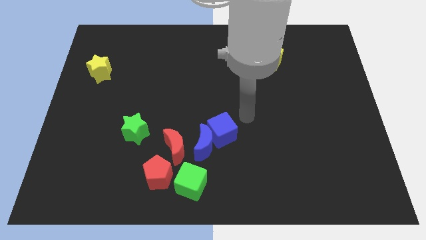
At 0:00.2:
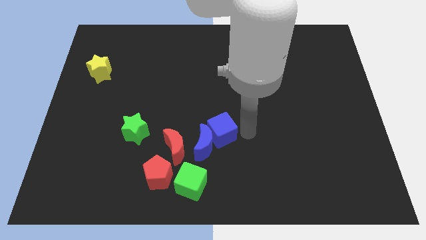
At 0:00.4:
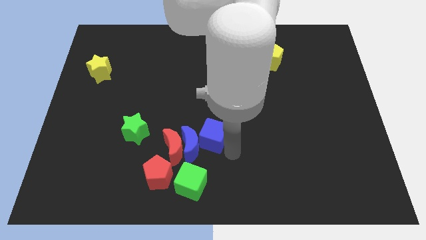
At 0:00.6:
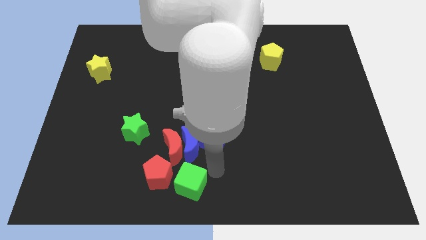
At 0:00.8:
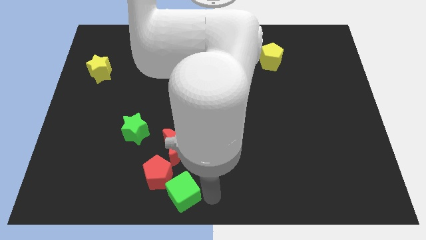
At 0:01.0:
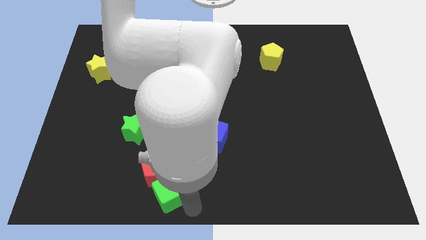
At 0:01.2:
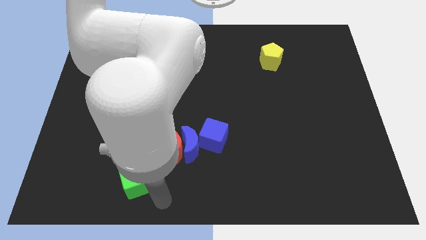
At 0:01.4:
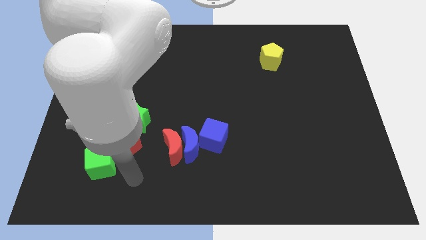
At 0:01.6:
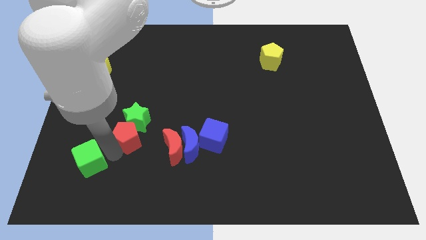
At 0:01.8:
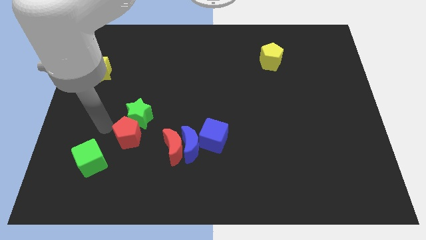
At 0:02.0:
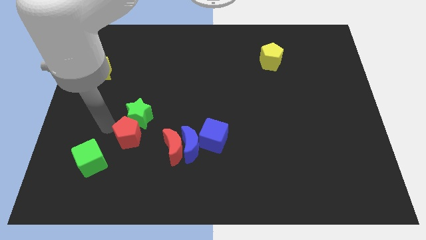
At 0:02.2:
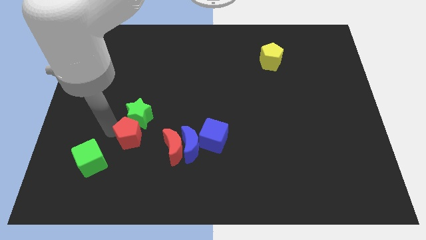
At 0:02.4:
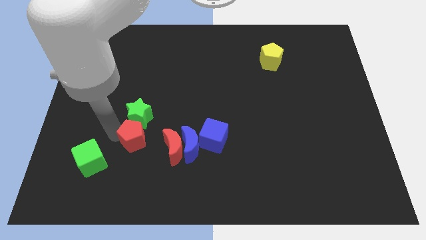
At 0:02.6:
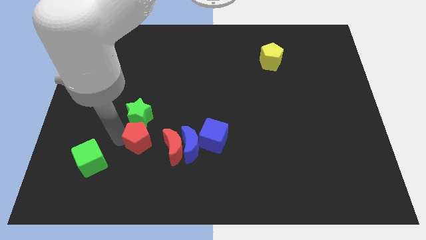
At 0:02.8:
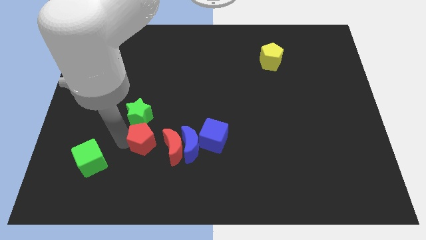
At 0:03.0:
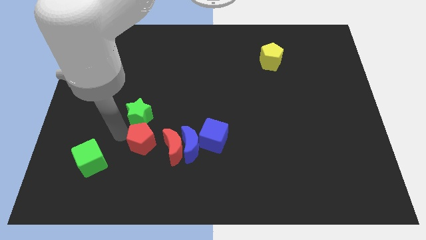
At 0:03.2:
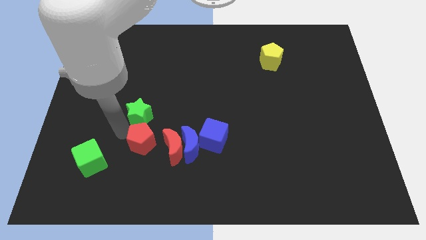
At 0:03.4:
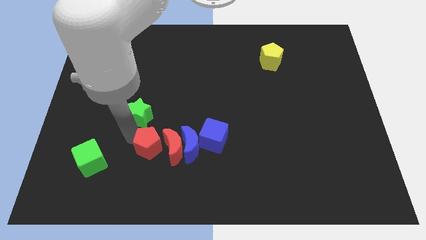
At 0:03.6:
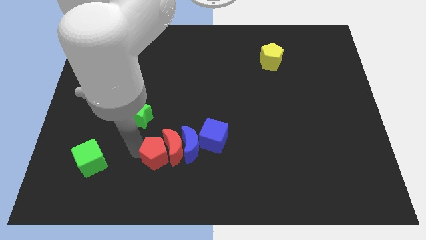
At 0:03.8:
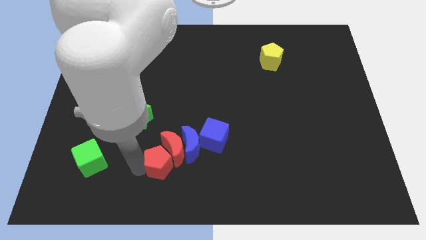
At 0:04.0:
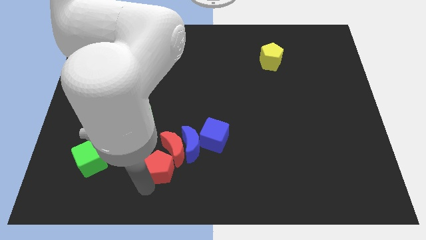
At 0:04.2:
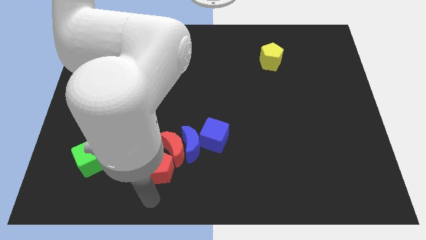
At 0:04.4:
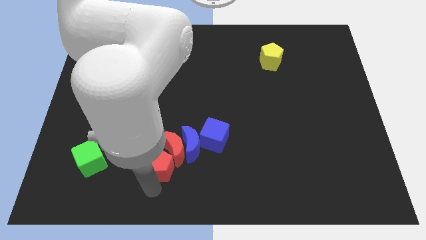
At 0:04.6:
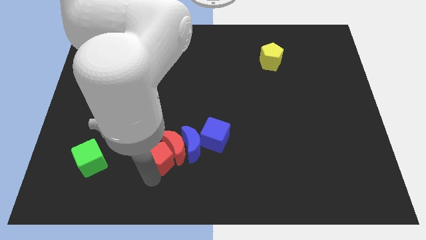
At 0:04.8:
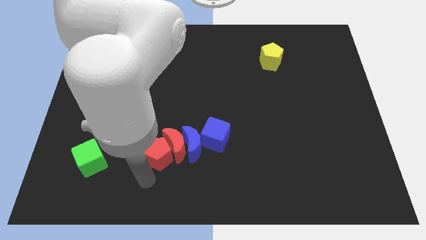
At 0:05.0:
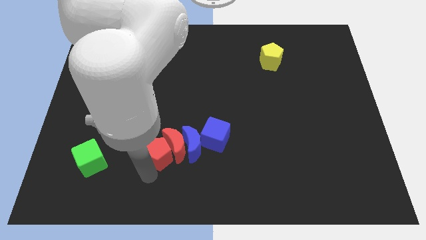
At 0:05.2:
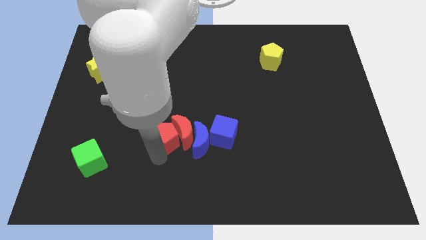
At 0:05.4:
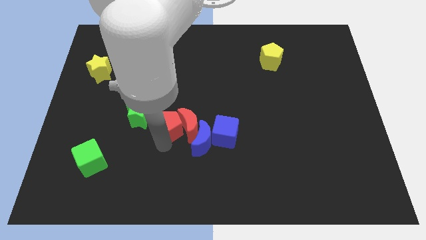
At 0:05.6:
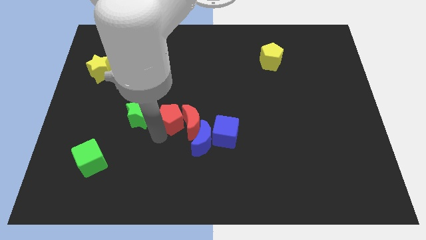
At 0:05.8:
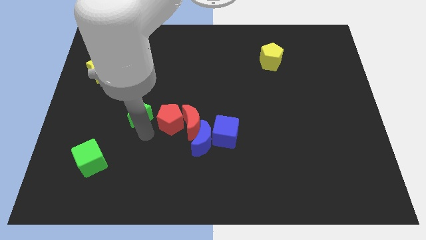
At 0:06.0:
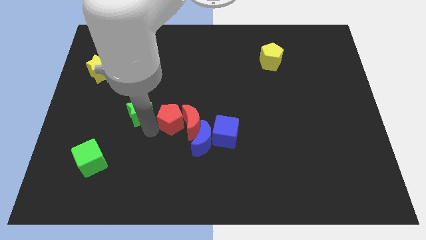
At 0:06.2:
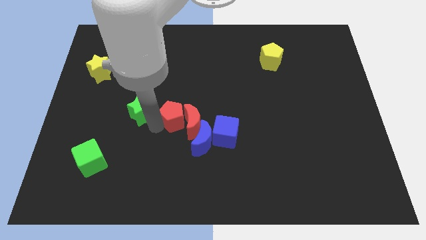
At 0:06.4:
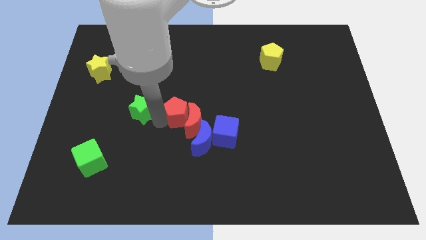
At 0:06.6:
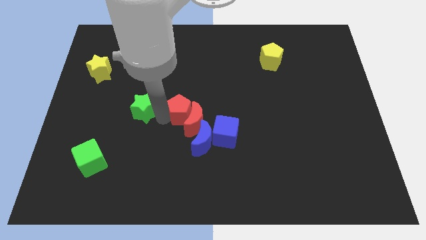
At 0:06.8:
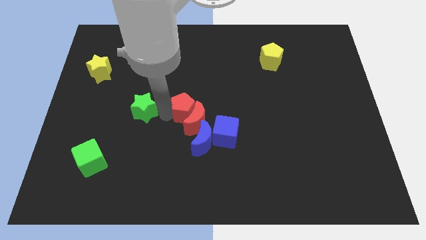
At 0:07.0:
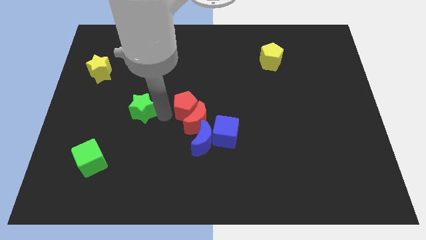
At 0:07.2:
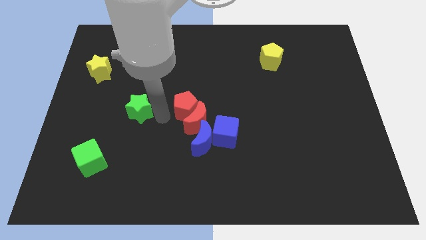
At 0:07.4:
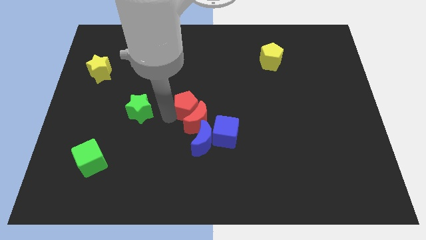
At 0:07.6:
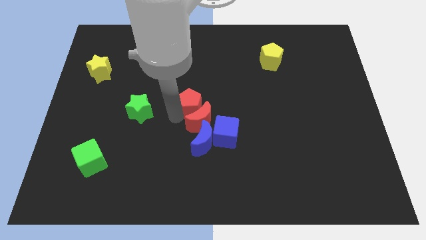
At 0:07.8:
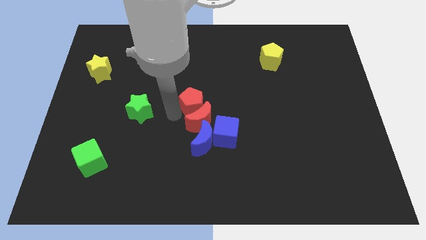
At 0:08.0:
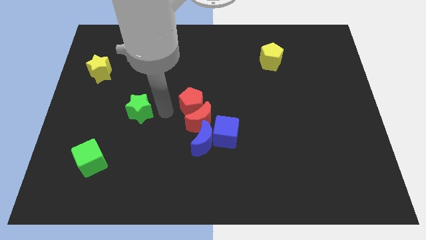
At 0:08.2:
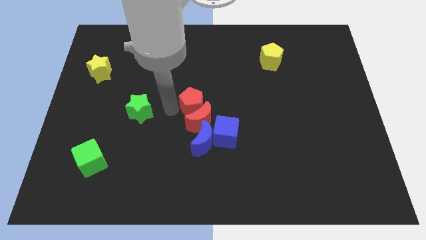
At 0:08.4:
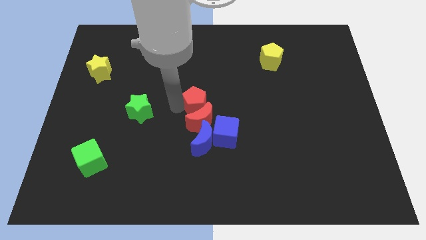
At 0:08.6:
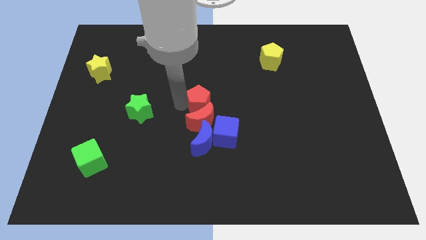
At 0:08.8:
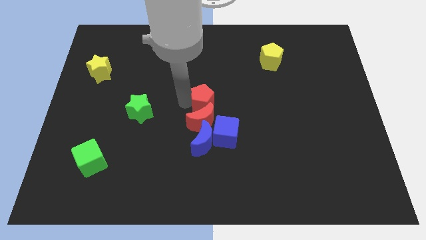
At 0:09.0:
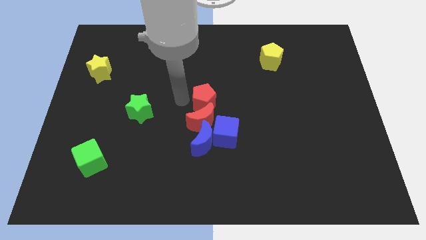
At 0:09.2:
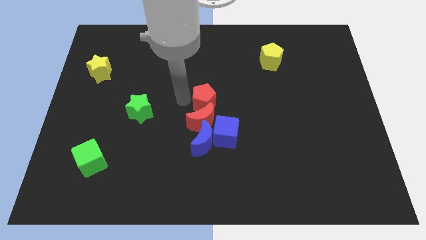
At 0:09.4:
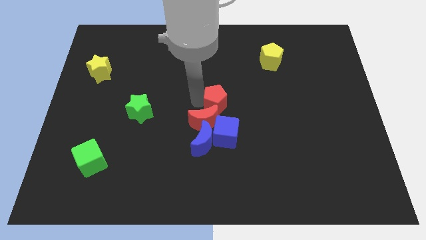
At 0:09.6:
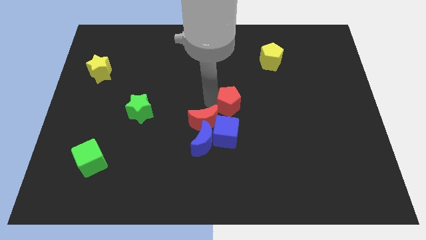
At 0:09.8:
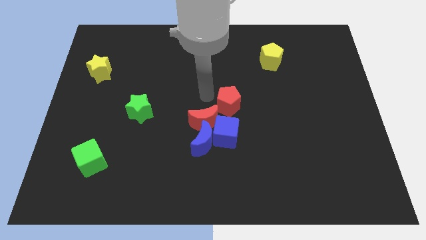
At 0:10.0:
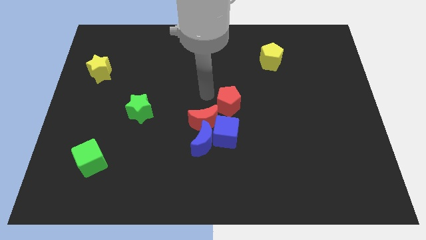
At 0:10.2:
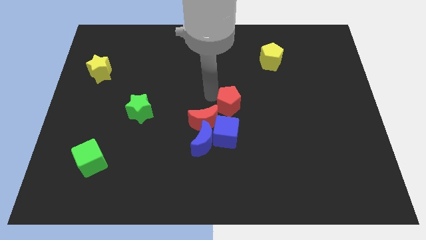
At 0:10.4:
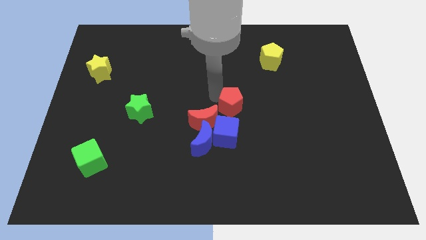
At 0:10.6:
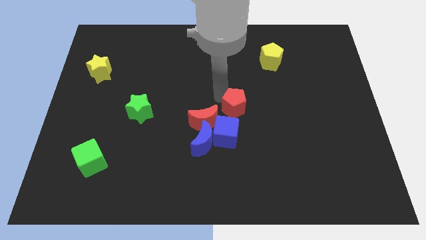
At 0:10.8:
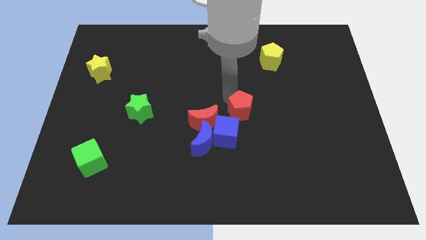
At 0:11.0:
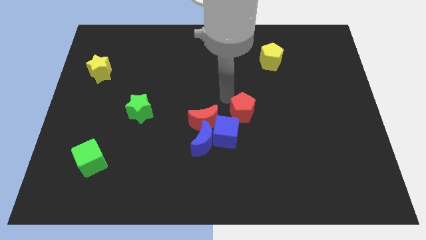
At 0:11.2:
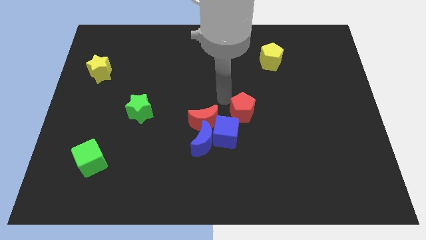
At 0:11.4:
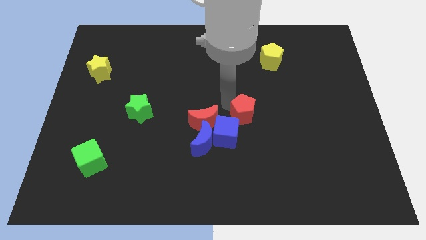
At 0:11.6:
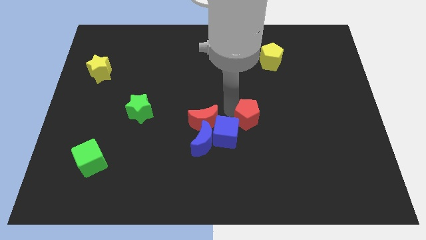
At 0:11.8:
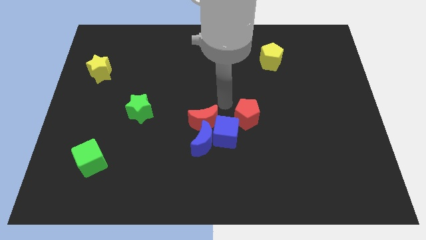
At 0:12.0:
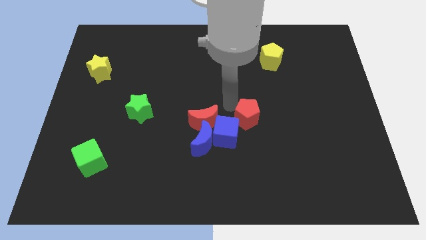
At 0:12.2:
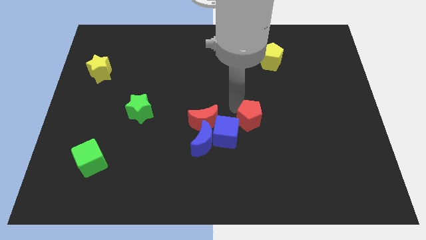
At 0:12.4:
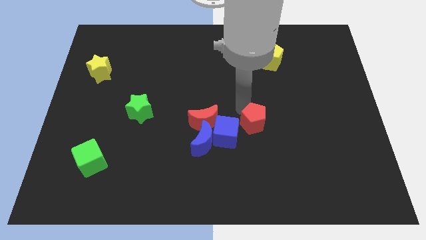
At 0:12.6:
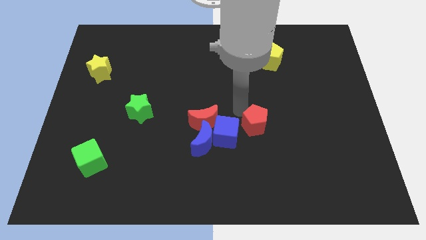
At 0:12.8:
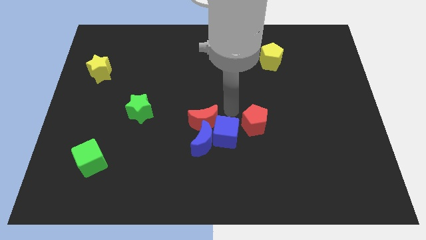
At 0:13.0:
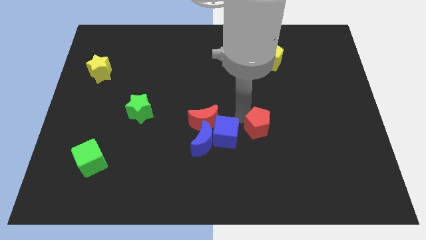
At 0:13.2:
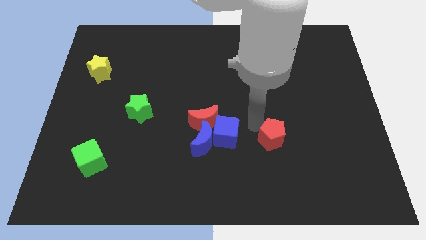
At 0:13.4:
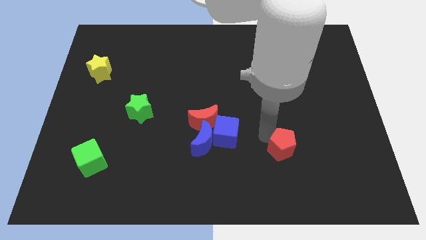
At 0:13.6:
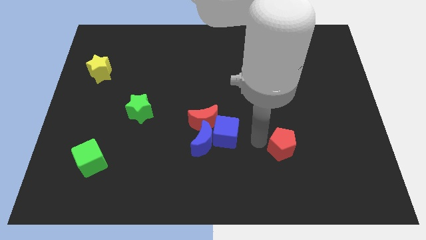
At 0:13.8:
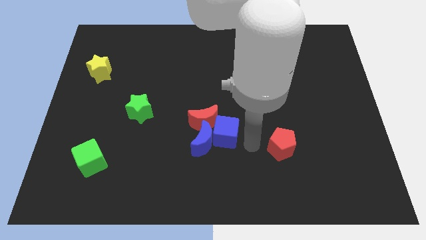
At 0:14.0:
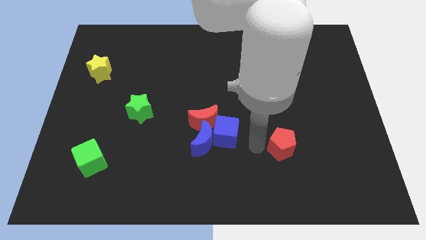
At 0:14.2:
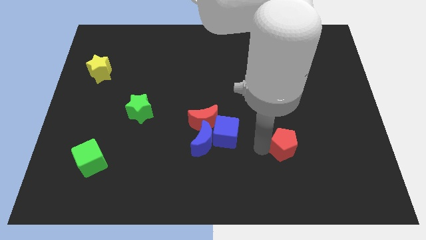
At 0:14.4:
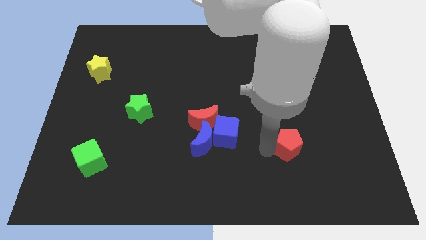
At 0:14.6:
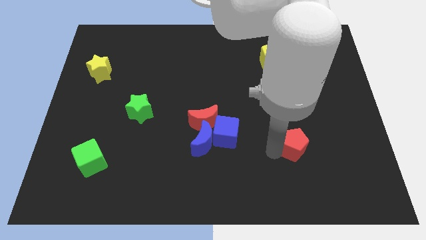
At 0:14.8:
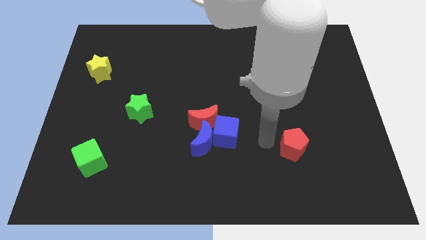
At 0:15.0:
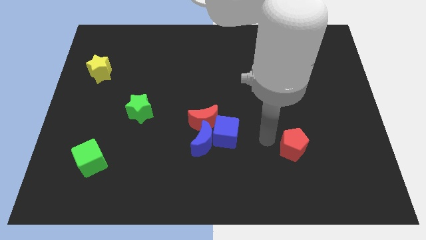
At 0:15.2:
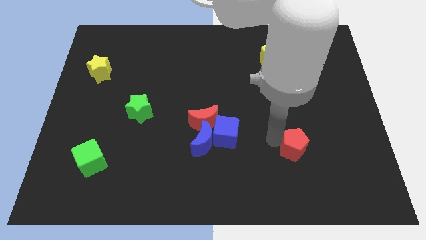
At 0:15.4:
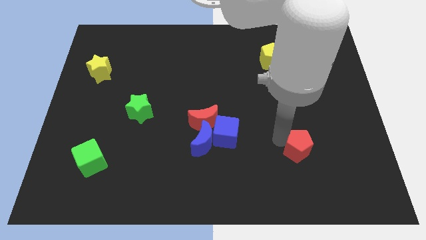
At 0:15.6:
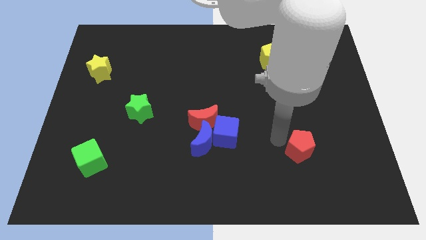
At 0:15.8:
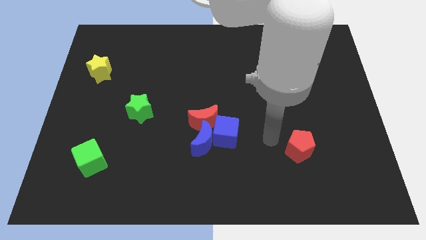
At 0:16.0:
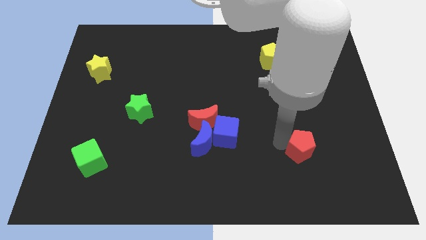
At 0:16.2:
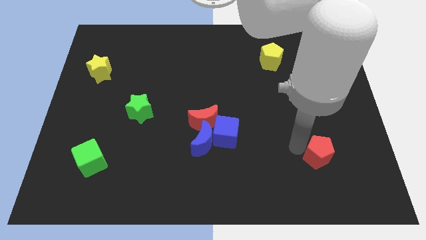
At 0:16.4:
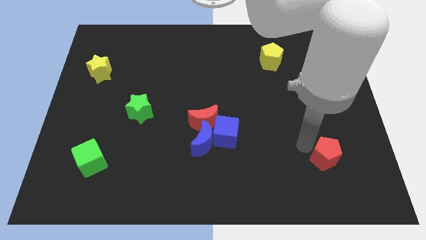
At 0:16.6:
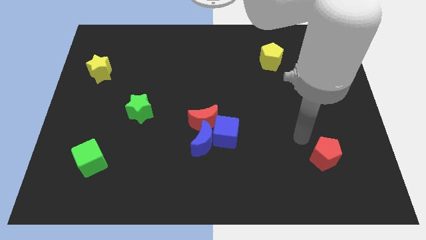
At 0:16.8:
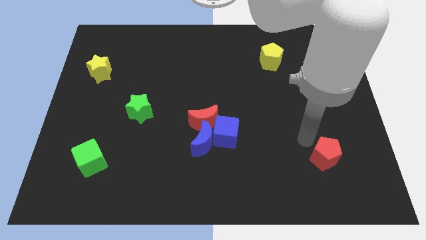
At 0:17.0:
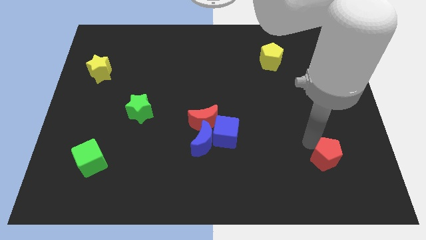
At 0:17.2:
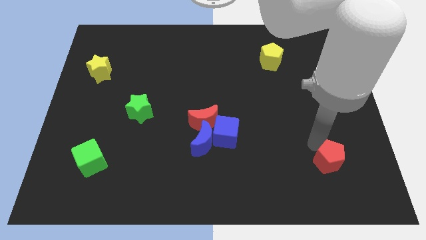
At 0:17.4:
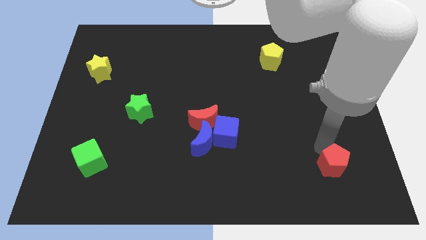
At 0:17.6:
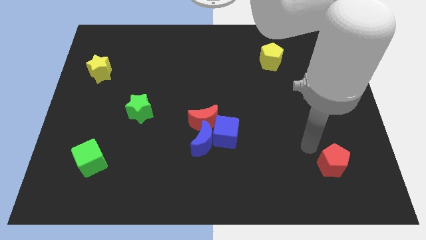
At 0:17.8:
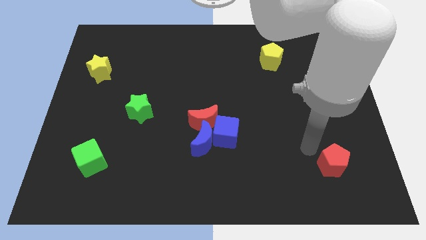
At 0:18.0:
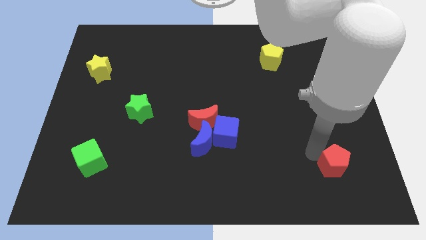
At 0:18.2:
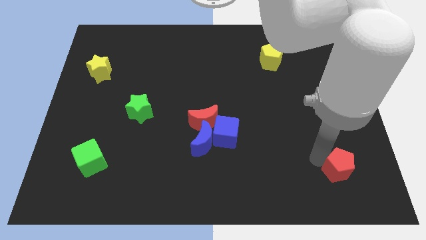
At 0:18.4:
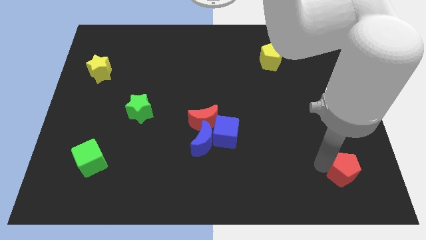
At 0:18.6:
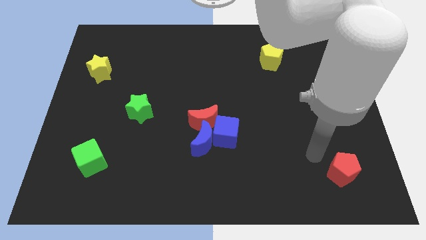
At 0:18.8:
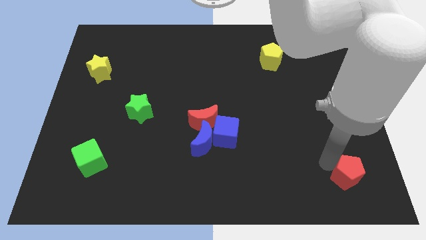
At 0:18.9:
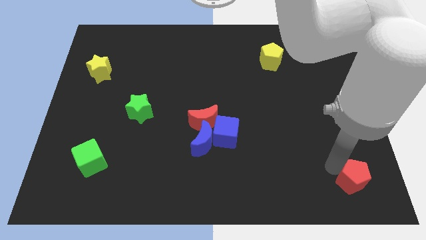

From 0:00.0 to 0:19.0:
put the red pentagon to the bottom right corner
